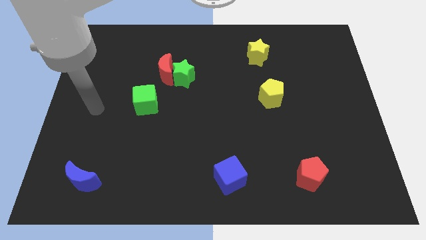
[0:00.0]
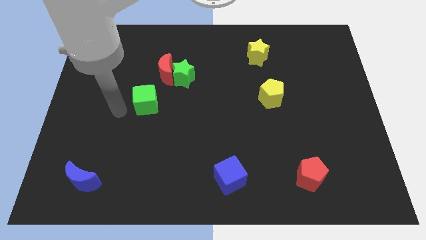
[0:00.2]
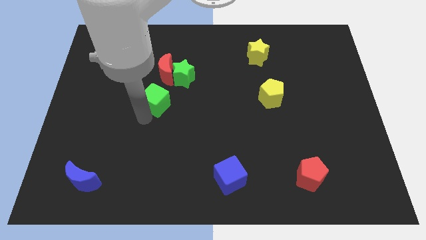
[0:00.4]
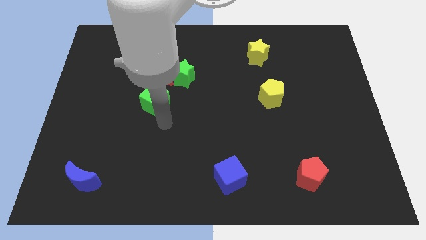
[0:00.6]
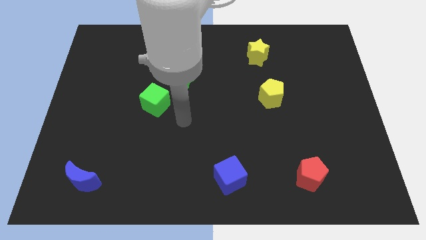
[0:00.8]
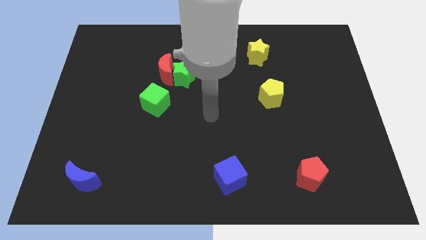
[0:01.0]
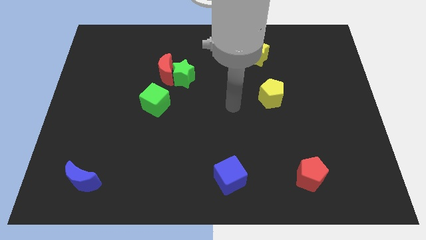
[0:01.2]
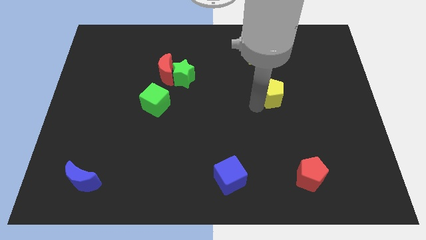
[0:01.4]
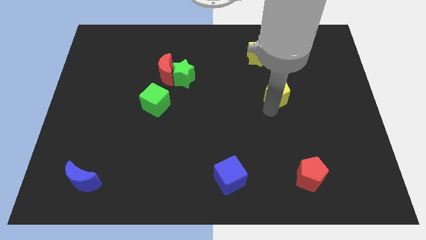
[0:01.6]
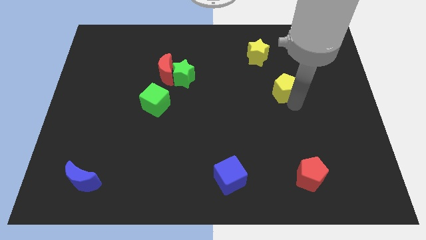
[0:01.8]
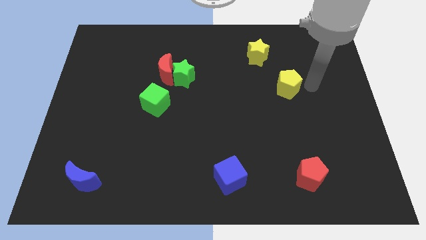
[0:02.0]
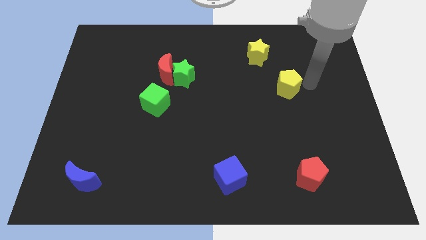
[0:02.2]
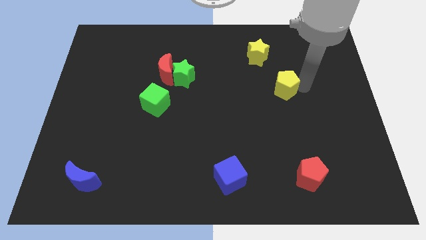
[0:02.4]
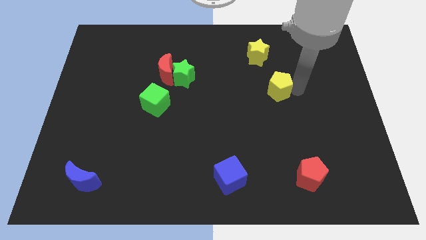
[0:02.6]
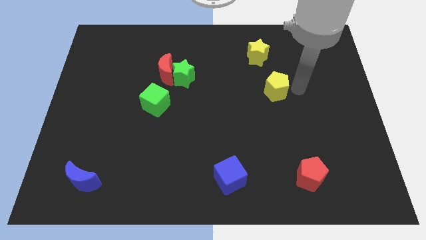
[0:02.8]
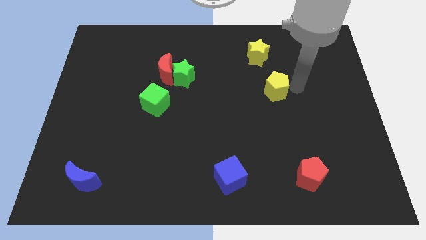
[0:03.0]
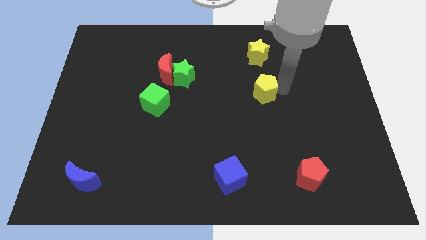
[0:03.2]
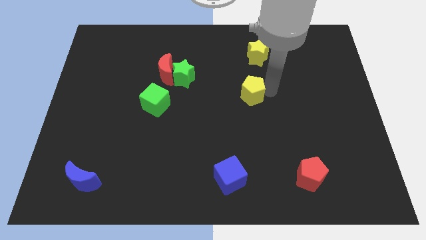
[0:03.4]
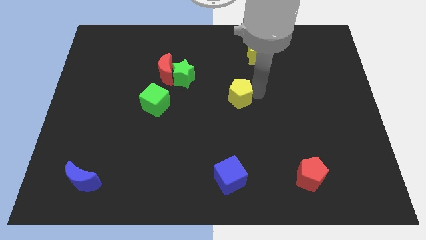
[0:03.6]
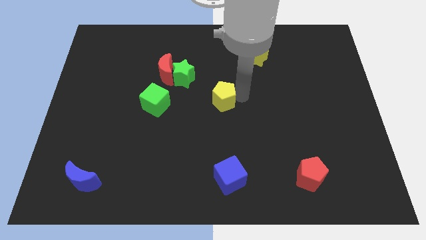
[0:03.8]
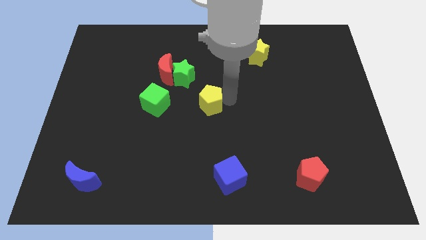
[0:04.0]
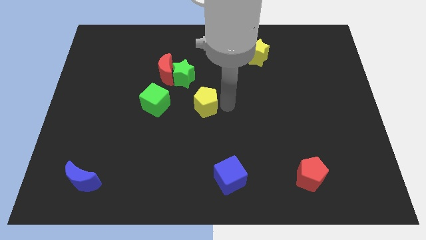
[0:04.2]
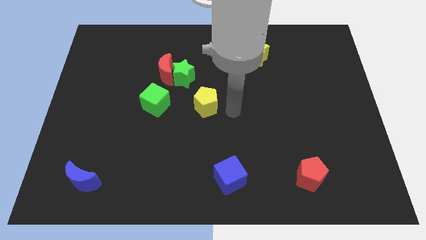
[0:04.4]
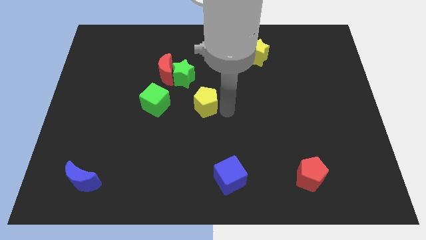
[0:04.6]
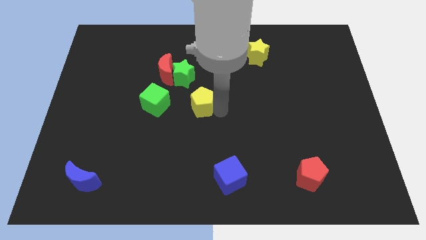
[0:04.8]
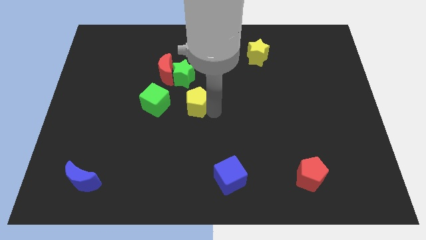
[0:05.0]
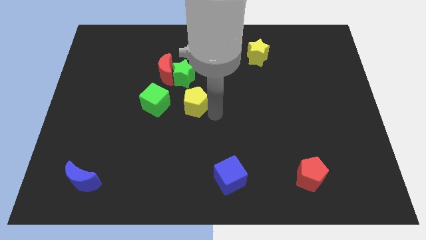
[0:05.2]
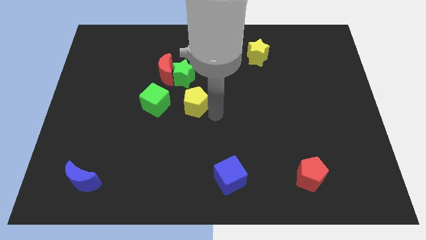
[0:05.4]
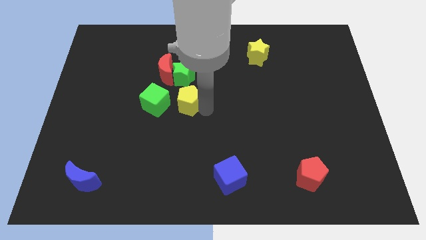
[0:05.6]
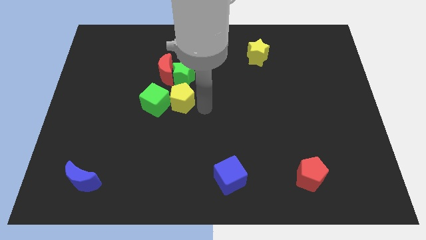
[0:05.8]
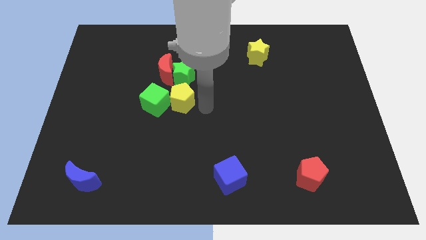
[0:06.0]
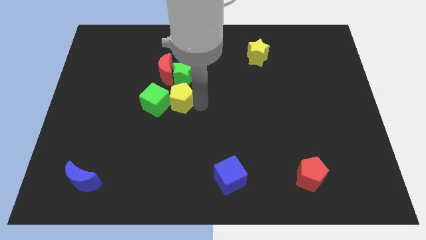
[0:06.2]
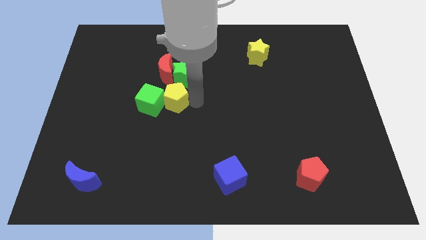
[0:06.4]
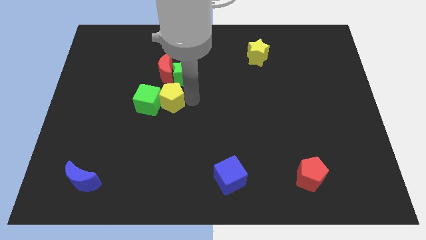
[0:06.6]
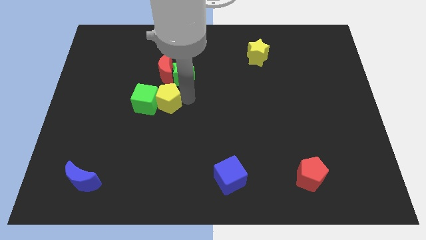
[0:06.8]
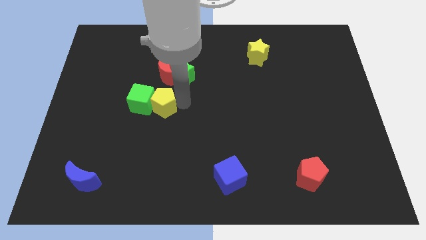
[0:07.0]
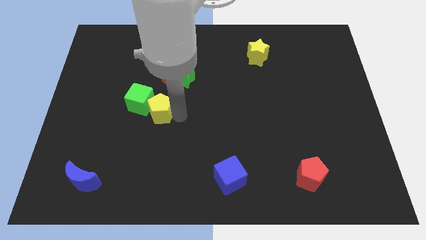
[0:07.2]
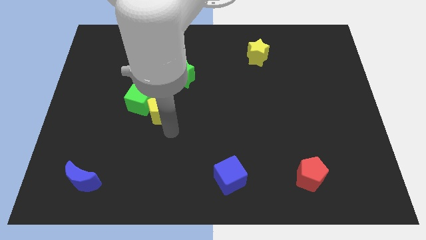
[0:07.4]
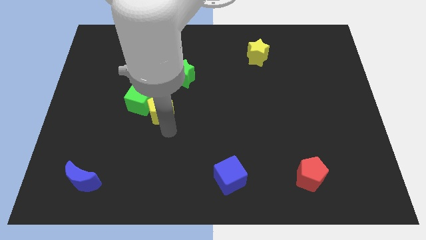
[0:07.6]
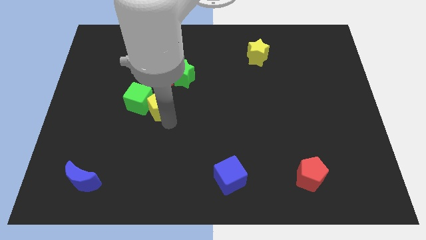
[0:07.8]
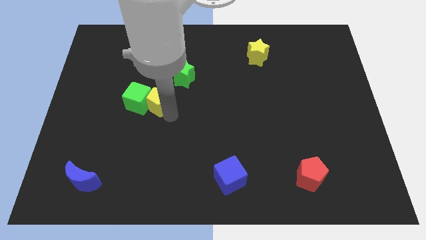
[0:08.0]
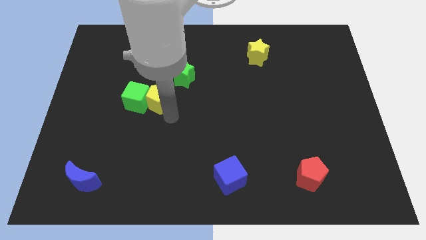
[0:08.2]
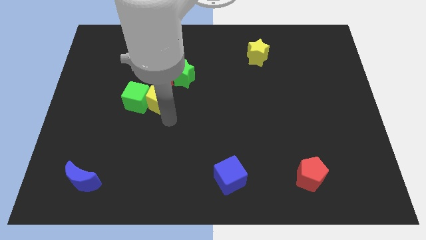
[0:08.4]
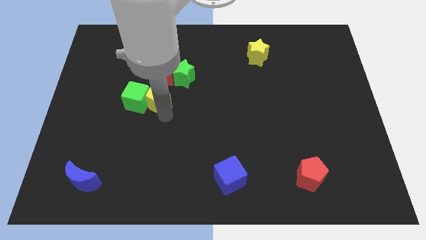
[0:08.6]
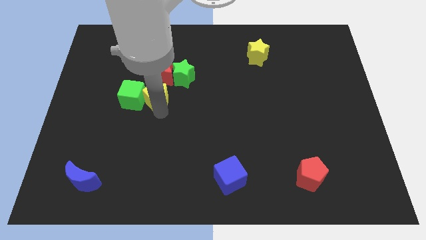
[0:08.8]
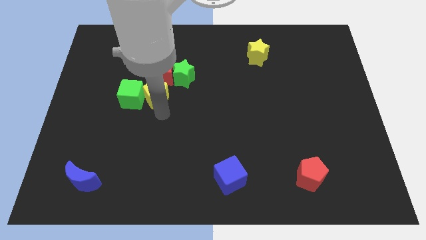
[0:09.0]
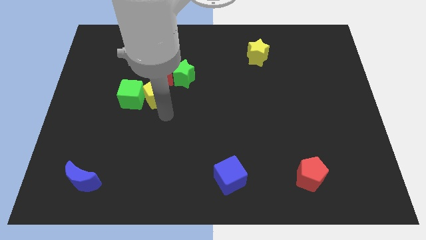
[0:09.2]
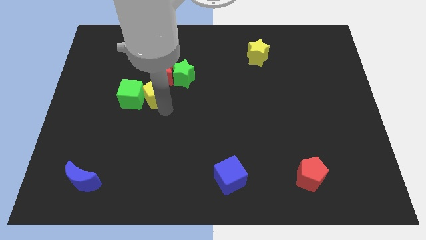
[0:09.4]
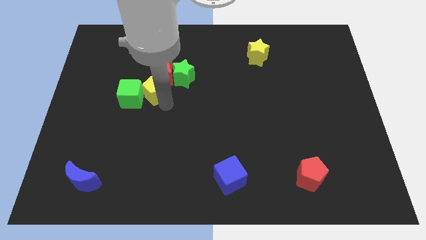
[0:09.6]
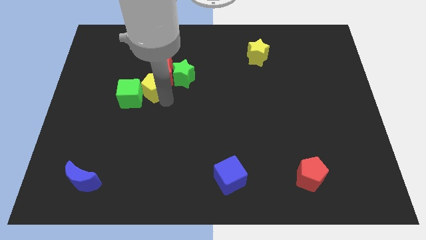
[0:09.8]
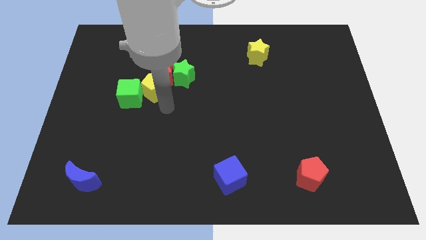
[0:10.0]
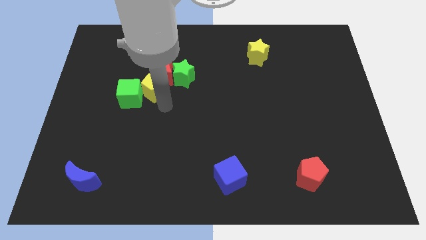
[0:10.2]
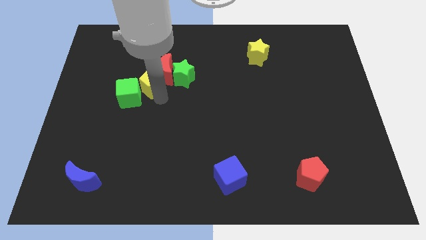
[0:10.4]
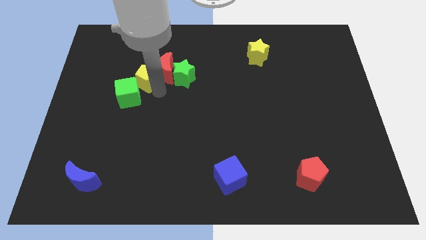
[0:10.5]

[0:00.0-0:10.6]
slide the yellow pentagon to the left of the red moon

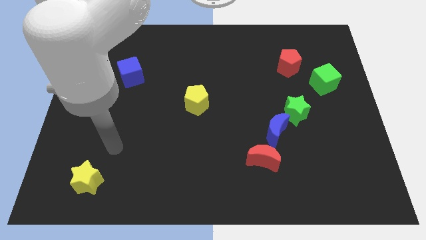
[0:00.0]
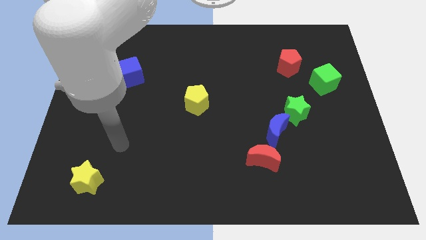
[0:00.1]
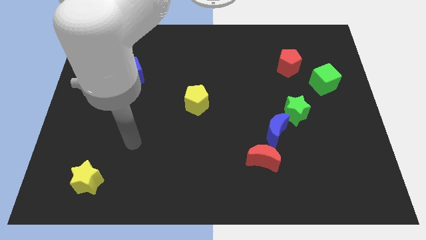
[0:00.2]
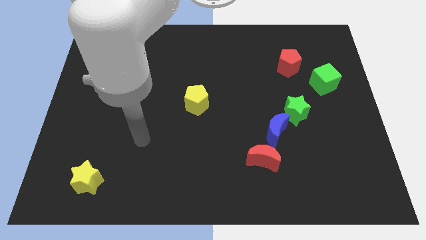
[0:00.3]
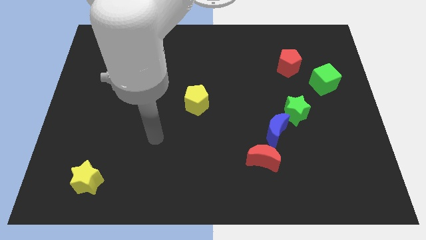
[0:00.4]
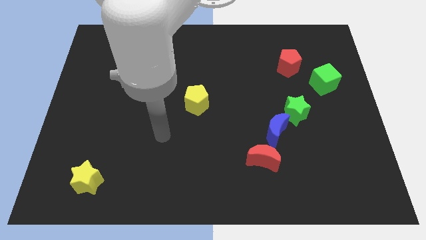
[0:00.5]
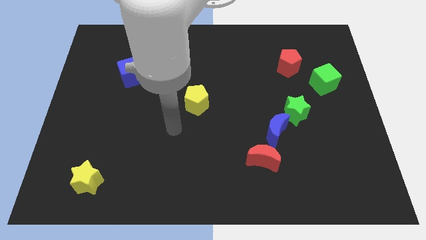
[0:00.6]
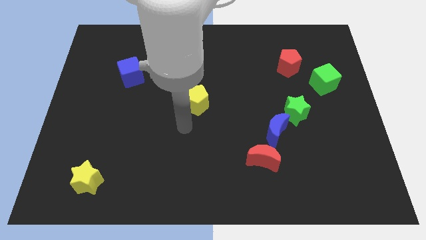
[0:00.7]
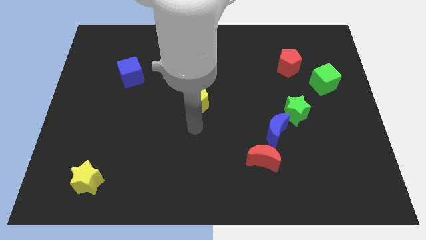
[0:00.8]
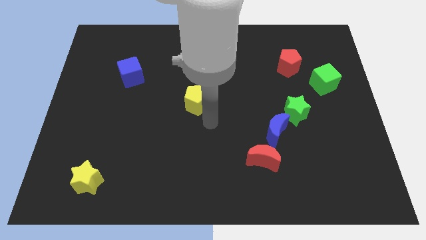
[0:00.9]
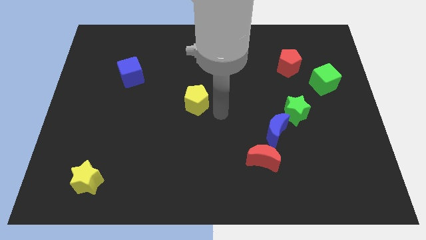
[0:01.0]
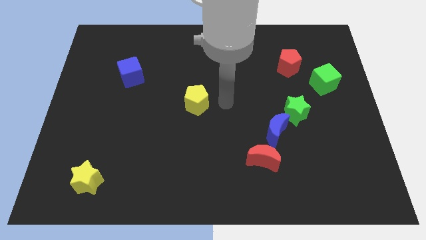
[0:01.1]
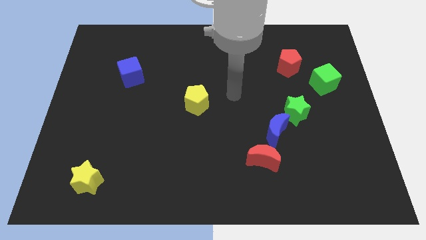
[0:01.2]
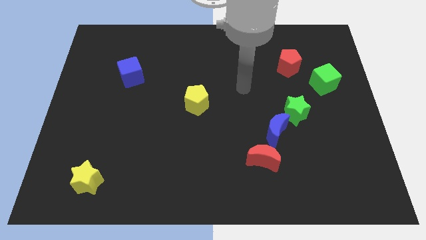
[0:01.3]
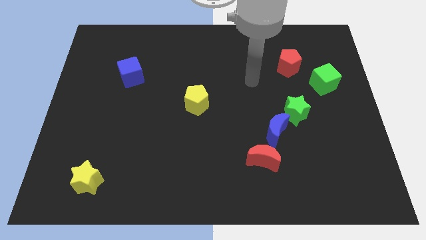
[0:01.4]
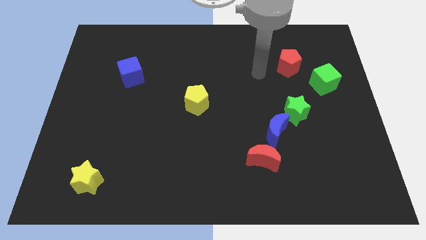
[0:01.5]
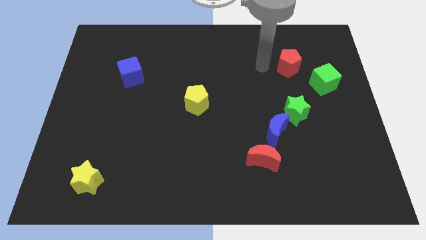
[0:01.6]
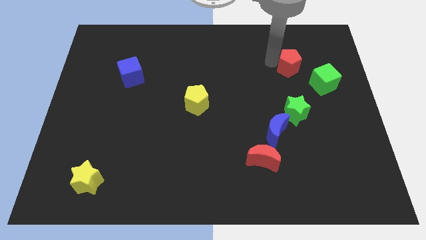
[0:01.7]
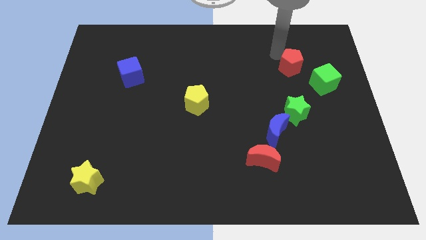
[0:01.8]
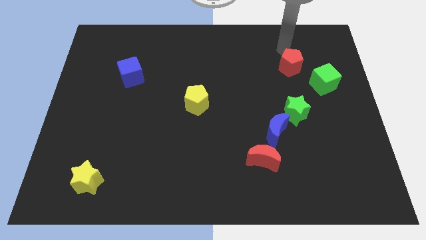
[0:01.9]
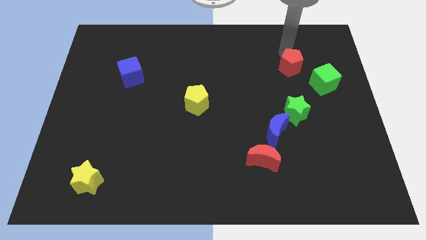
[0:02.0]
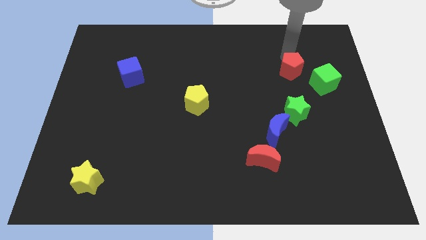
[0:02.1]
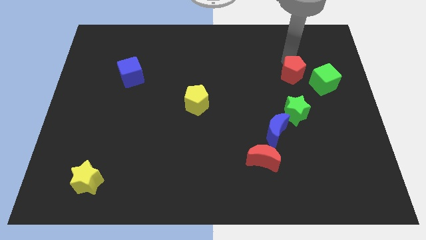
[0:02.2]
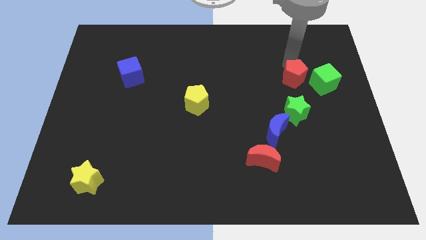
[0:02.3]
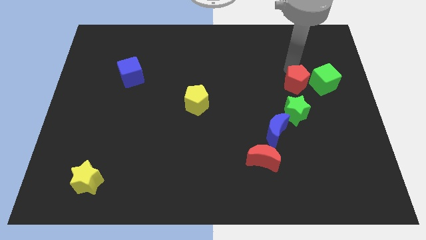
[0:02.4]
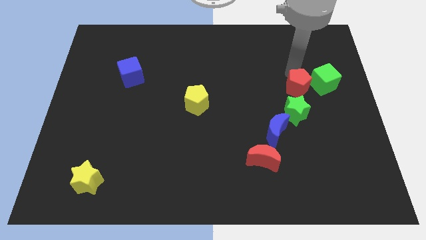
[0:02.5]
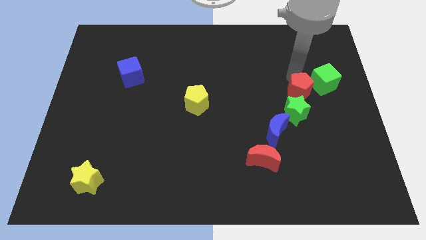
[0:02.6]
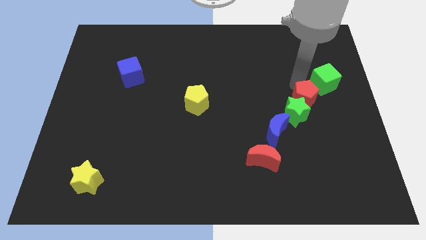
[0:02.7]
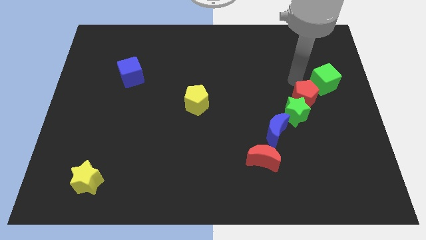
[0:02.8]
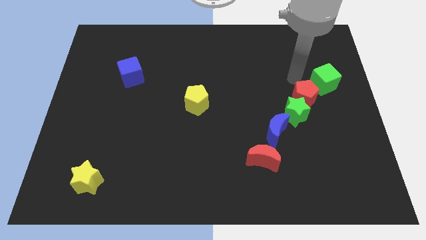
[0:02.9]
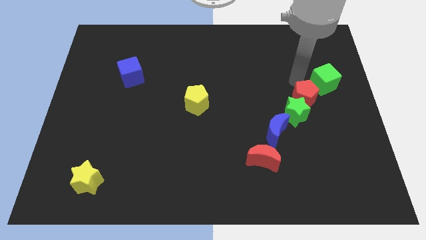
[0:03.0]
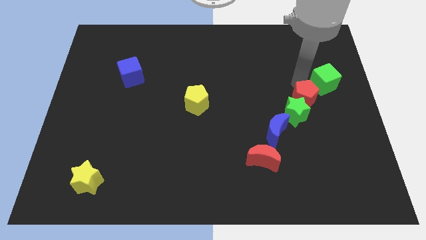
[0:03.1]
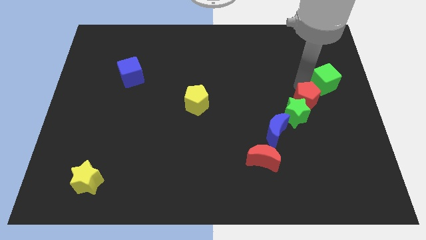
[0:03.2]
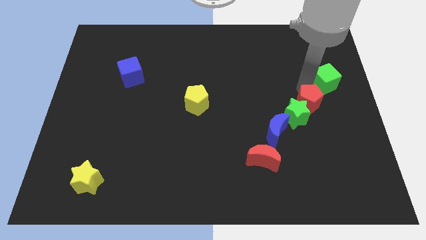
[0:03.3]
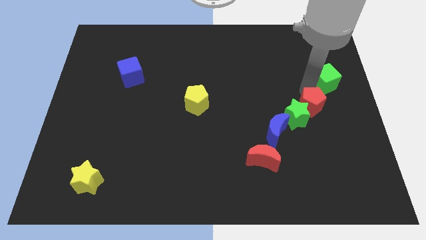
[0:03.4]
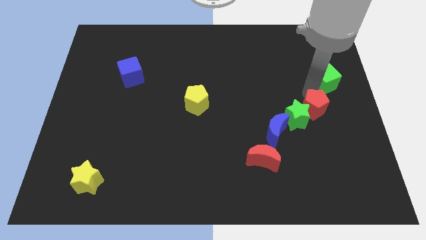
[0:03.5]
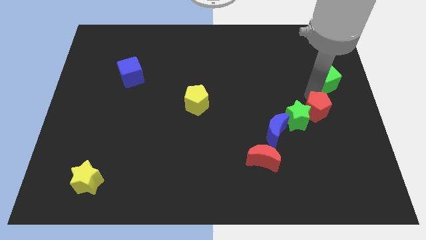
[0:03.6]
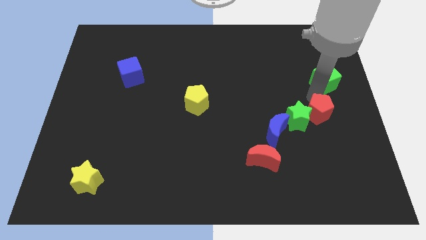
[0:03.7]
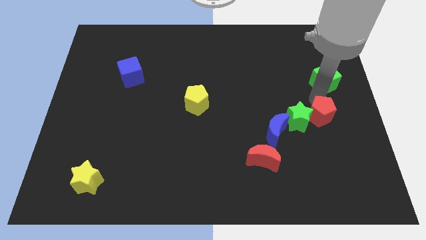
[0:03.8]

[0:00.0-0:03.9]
slide the red pentagon to the right of the blue moon
